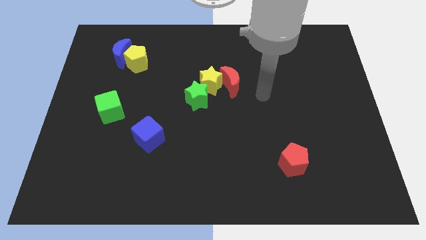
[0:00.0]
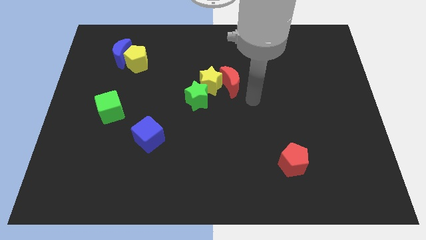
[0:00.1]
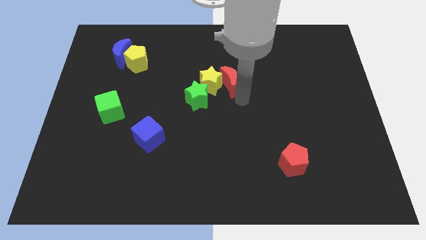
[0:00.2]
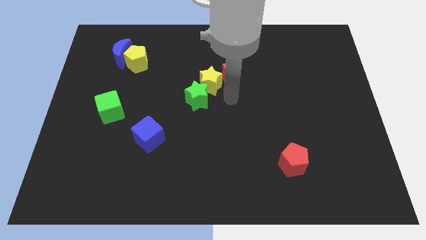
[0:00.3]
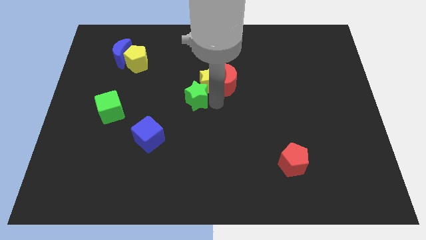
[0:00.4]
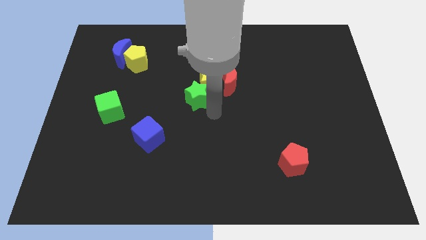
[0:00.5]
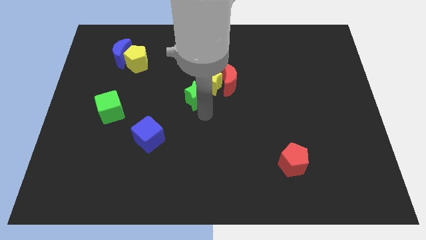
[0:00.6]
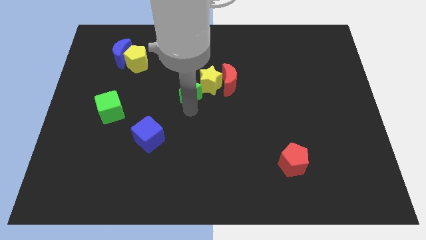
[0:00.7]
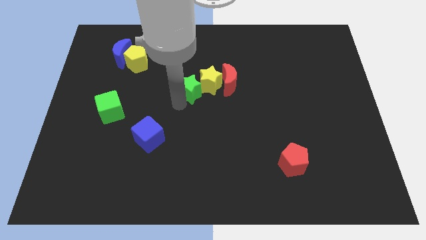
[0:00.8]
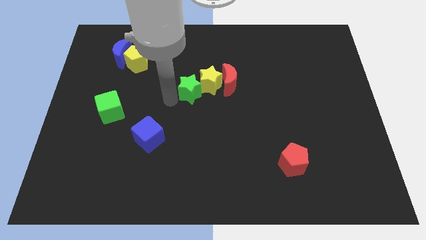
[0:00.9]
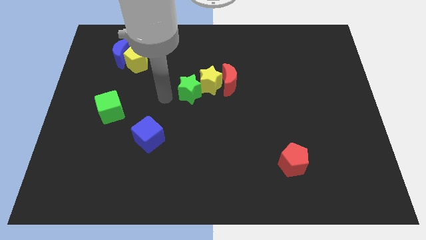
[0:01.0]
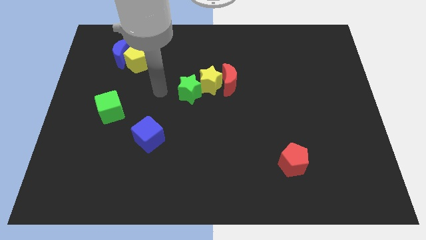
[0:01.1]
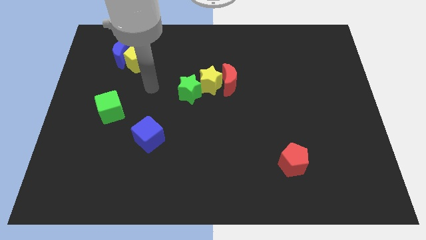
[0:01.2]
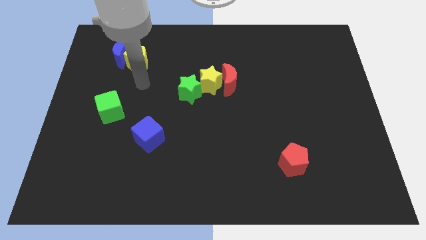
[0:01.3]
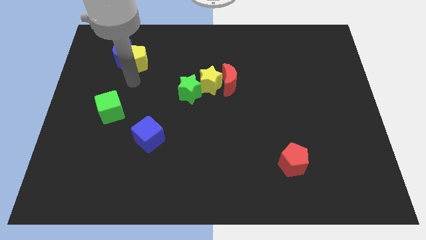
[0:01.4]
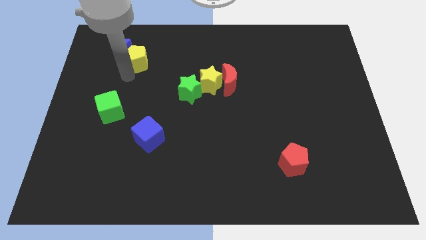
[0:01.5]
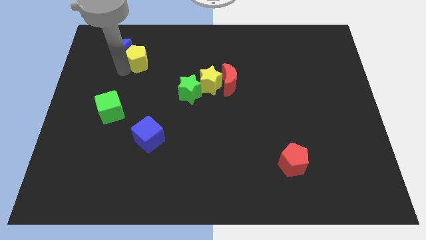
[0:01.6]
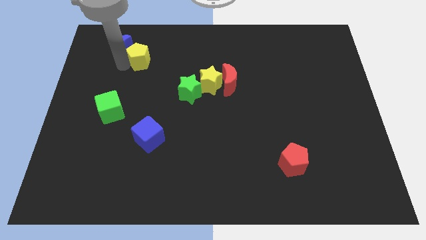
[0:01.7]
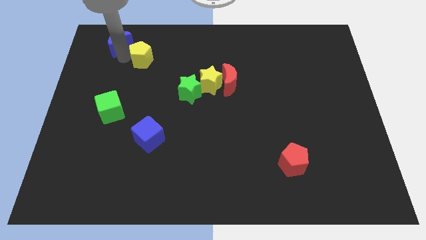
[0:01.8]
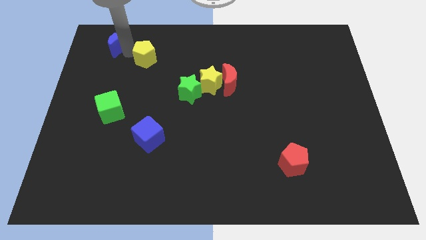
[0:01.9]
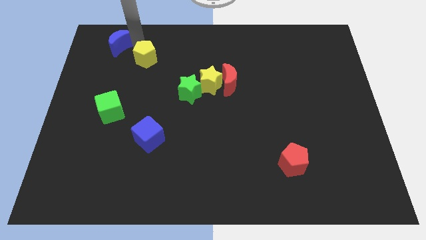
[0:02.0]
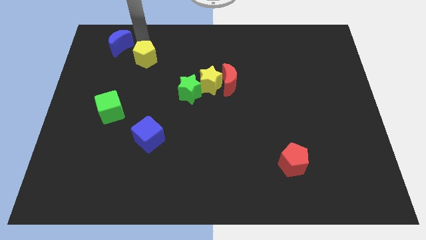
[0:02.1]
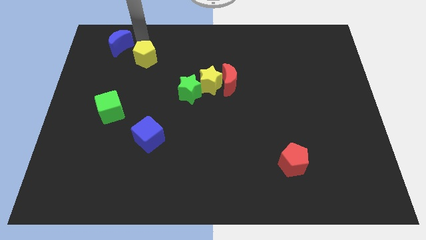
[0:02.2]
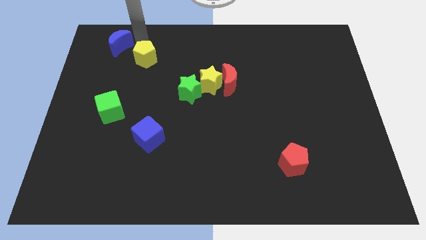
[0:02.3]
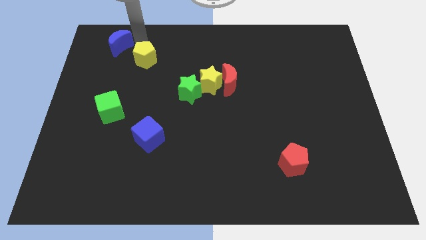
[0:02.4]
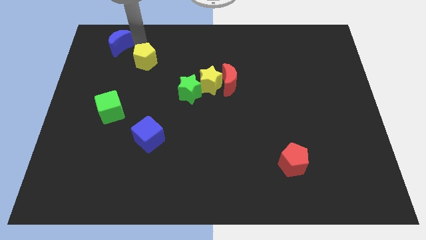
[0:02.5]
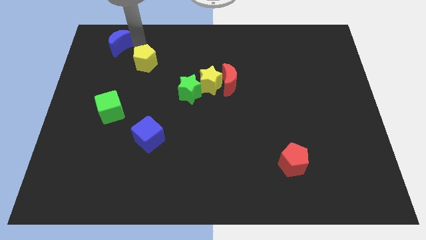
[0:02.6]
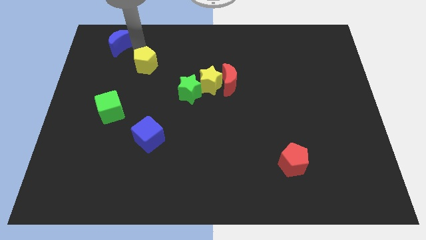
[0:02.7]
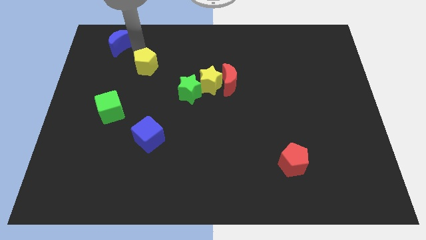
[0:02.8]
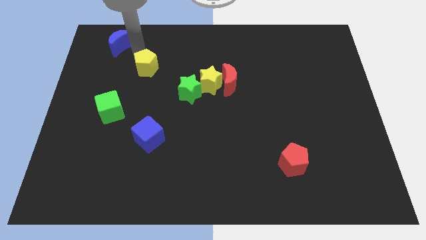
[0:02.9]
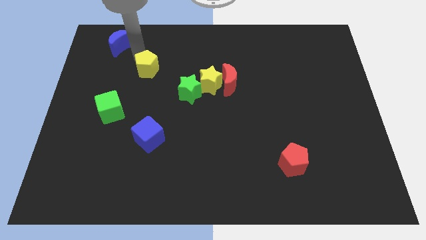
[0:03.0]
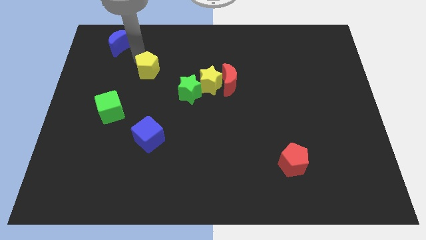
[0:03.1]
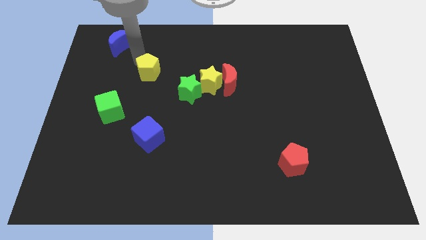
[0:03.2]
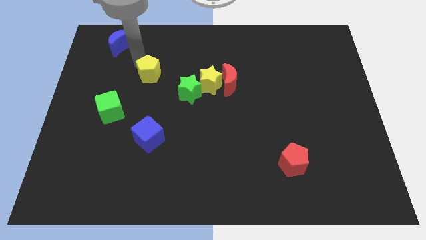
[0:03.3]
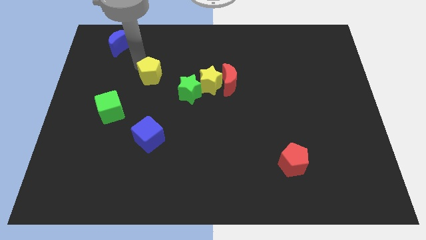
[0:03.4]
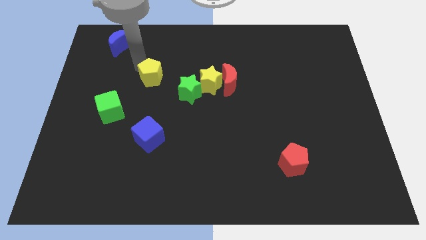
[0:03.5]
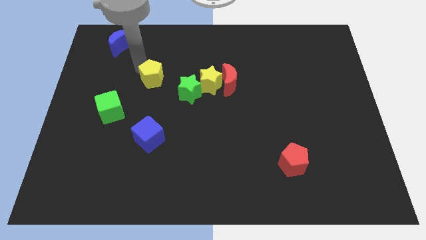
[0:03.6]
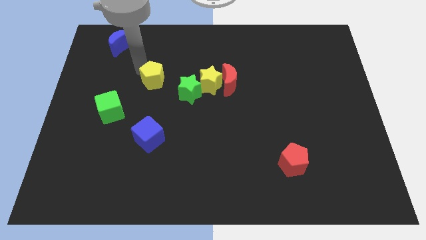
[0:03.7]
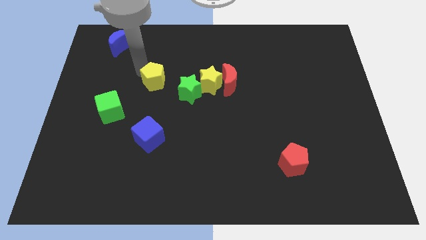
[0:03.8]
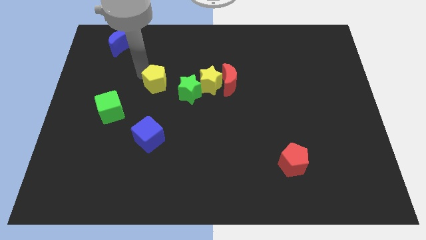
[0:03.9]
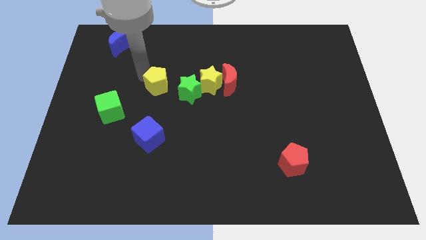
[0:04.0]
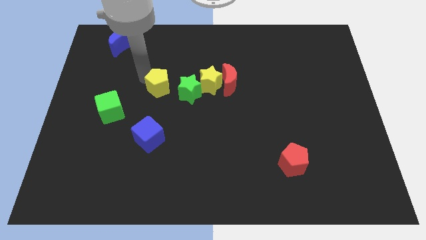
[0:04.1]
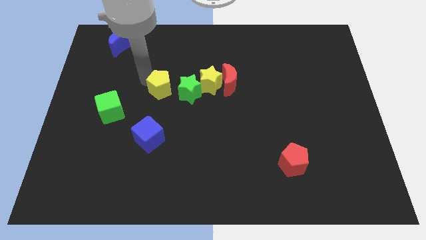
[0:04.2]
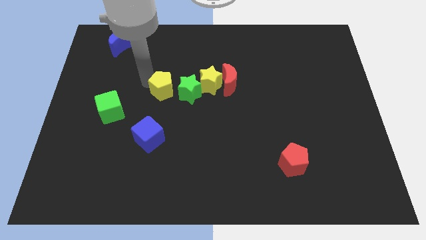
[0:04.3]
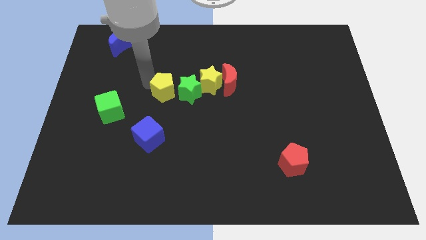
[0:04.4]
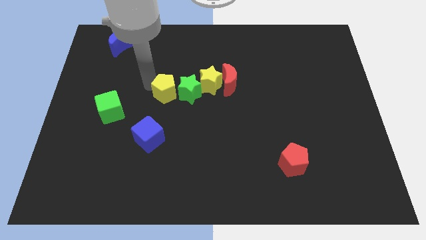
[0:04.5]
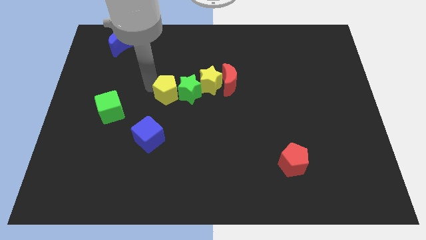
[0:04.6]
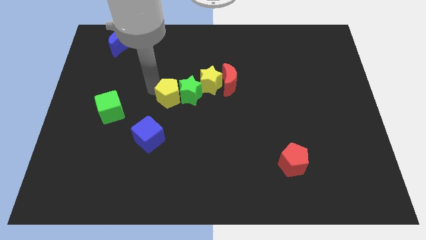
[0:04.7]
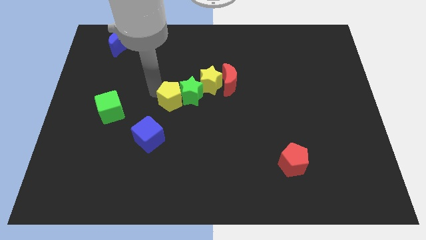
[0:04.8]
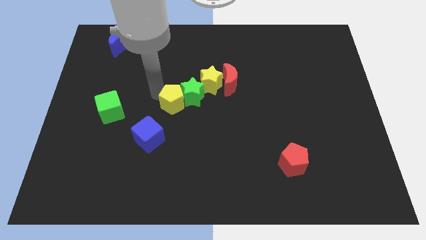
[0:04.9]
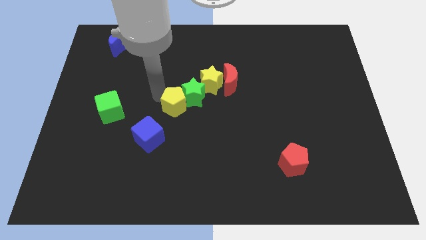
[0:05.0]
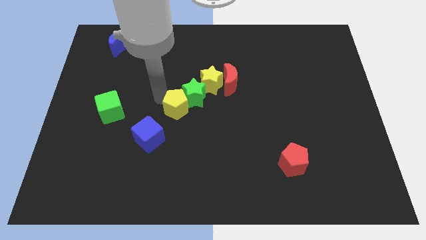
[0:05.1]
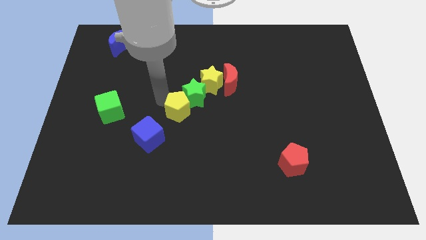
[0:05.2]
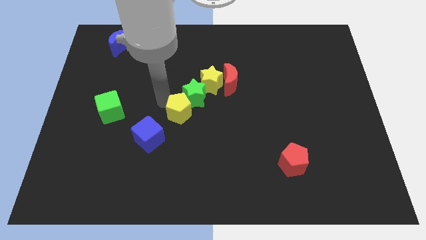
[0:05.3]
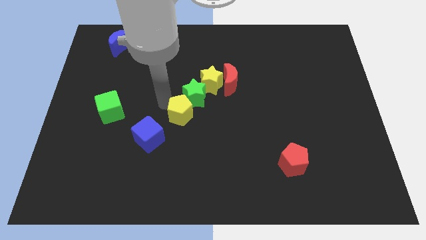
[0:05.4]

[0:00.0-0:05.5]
slide the yellow pentagon downwards and then to the right

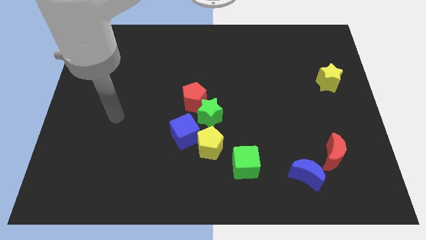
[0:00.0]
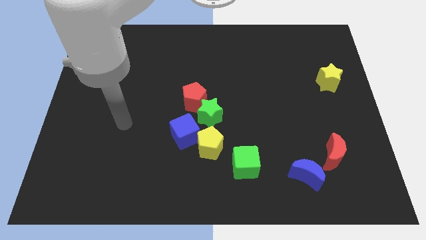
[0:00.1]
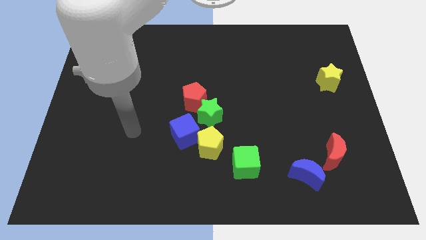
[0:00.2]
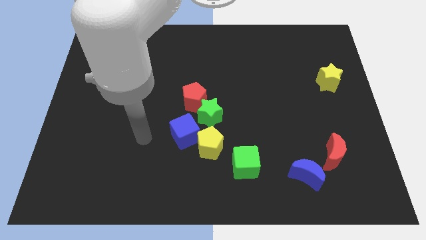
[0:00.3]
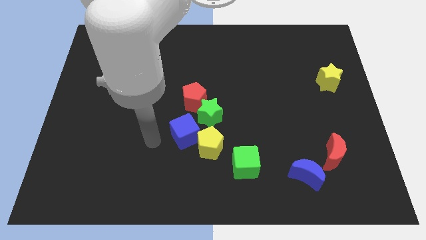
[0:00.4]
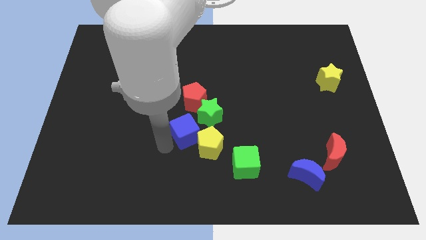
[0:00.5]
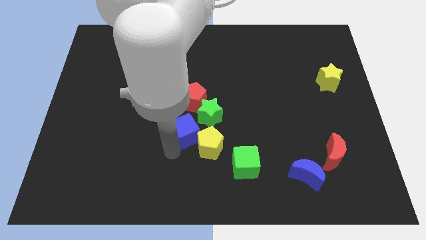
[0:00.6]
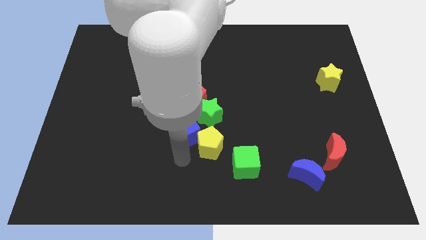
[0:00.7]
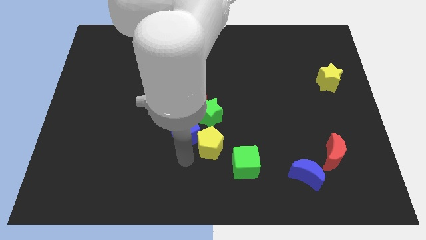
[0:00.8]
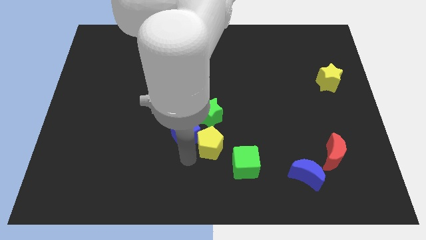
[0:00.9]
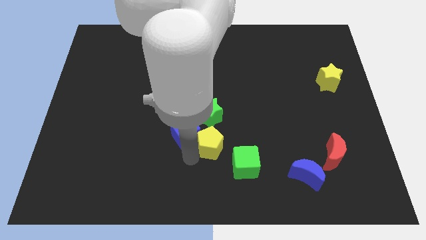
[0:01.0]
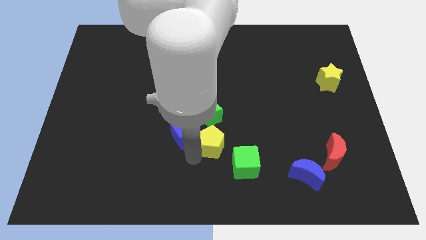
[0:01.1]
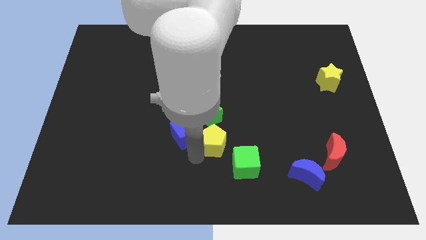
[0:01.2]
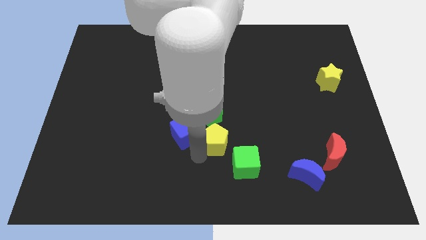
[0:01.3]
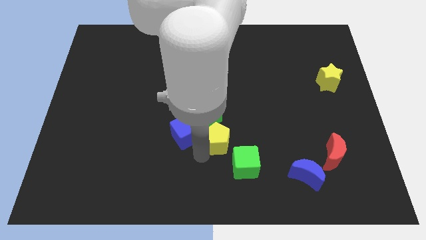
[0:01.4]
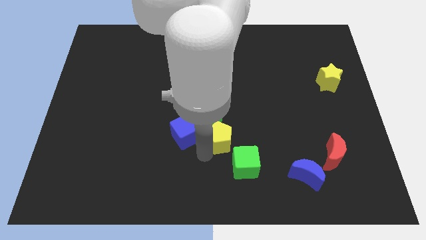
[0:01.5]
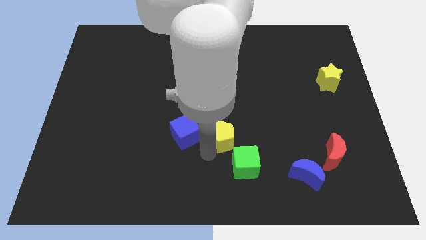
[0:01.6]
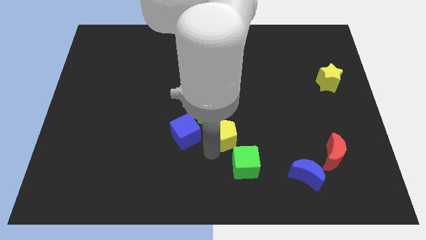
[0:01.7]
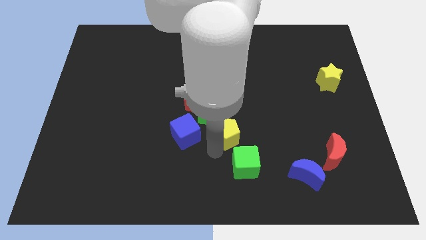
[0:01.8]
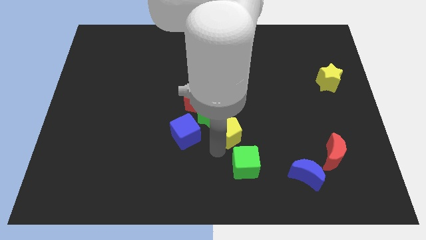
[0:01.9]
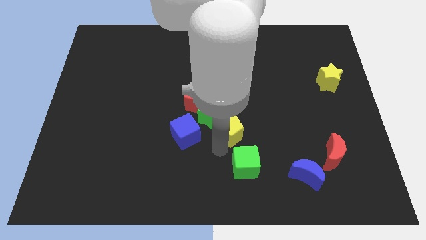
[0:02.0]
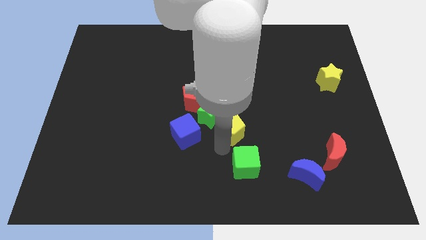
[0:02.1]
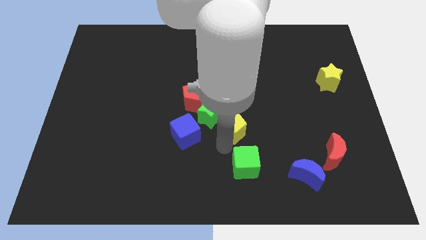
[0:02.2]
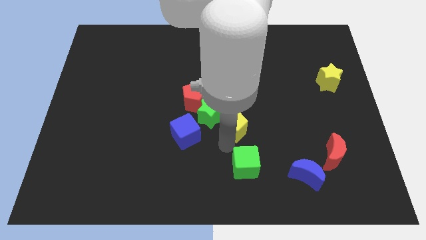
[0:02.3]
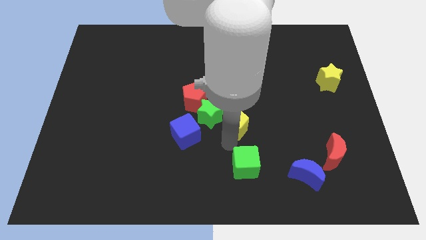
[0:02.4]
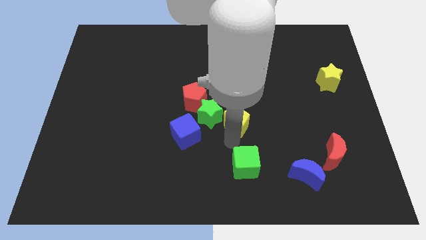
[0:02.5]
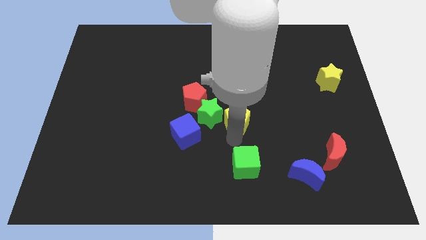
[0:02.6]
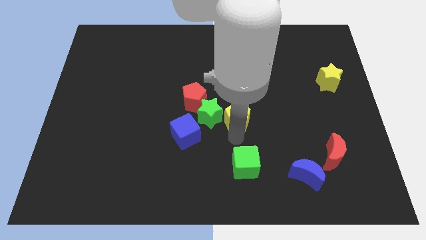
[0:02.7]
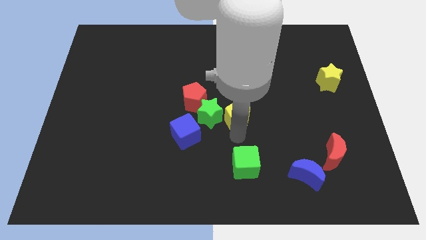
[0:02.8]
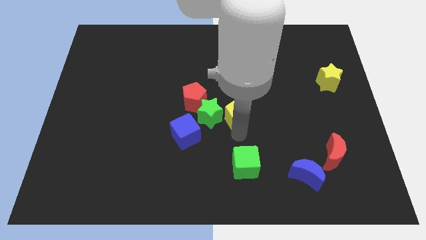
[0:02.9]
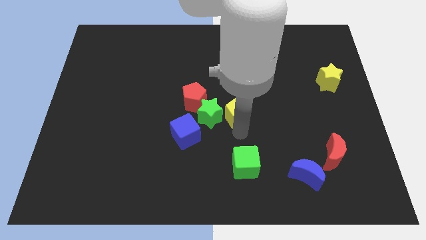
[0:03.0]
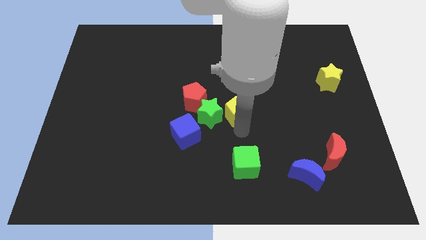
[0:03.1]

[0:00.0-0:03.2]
slide the yellow pentagon upwards slightly
